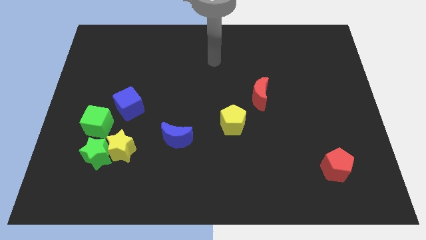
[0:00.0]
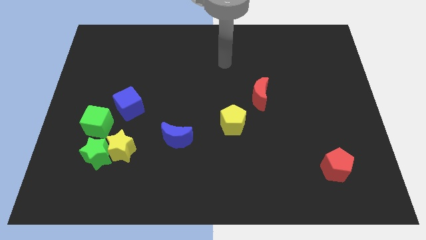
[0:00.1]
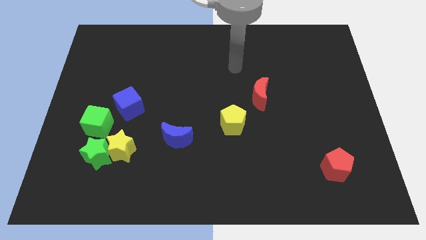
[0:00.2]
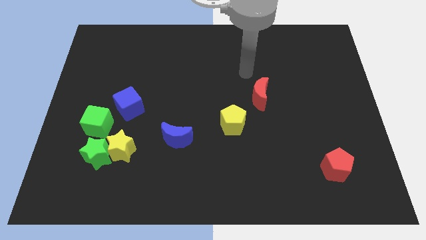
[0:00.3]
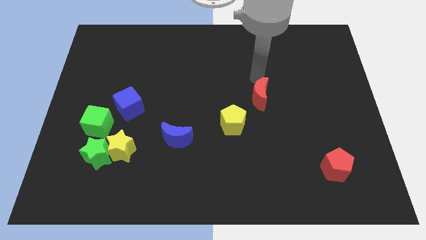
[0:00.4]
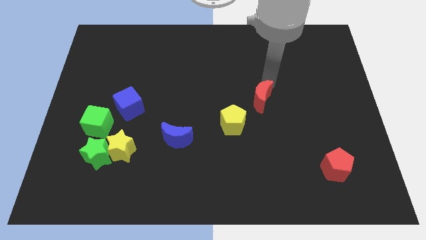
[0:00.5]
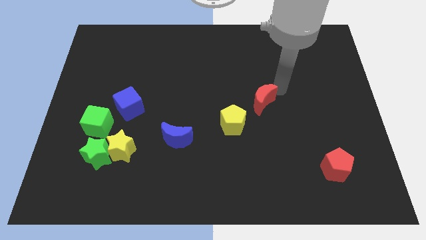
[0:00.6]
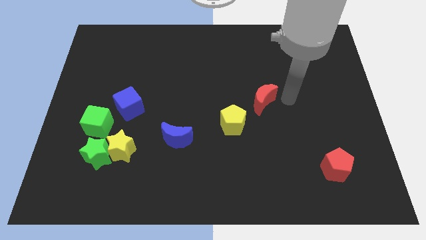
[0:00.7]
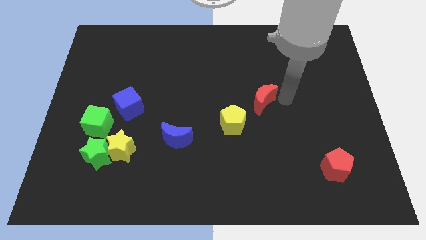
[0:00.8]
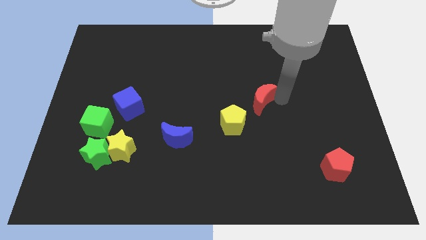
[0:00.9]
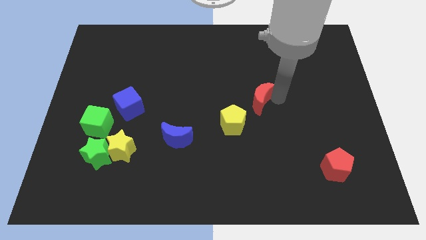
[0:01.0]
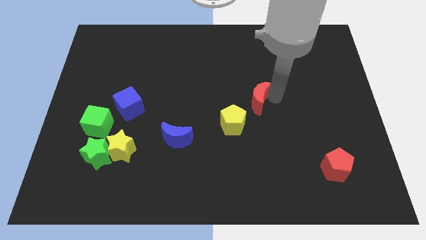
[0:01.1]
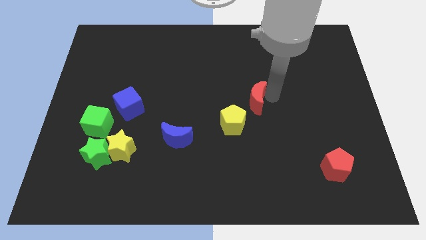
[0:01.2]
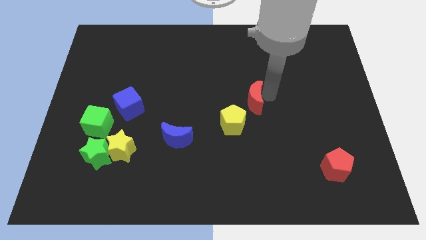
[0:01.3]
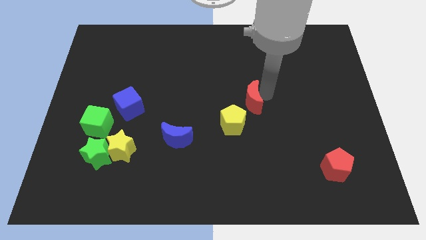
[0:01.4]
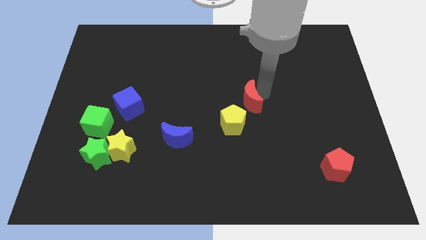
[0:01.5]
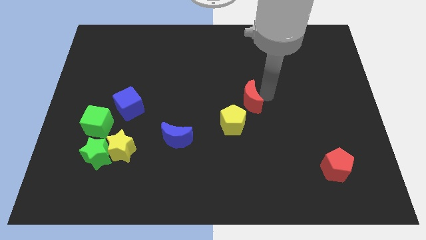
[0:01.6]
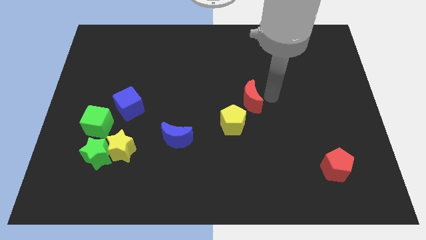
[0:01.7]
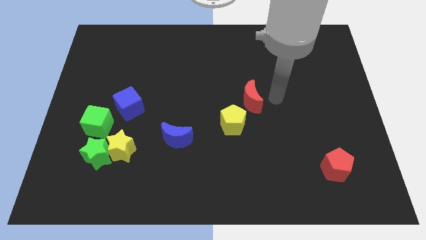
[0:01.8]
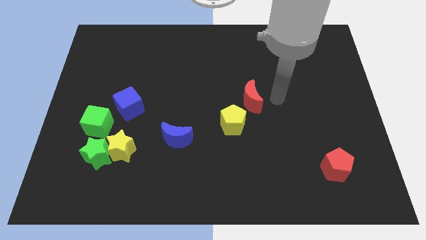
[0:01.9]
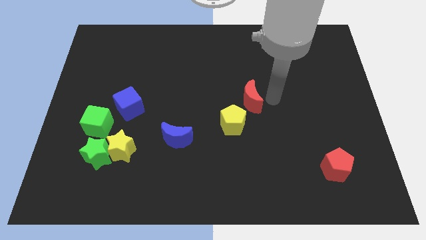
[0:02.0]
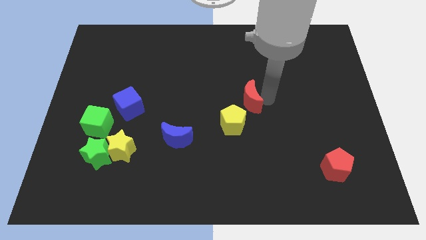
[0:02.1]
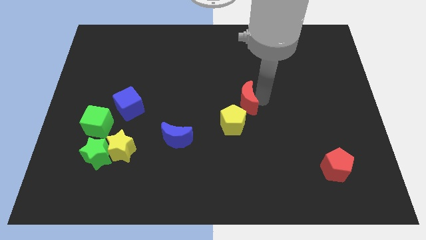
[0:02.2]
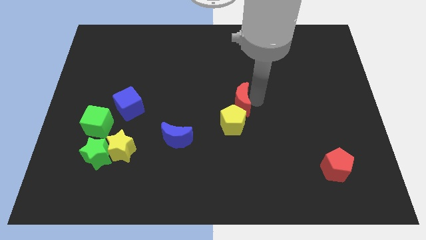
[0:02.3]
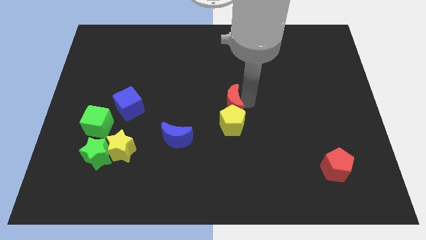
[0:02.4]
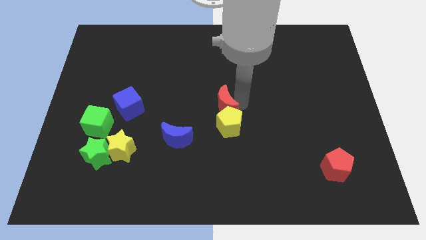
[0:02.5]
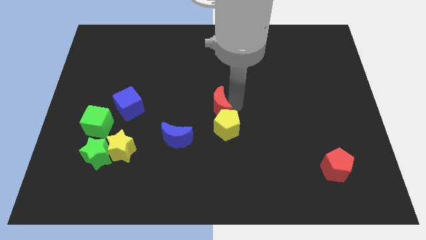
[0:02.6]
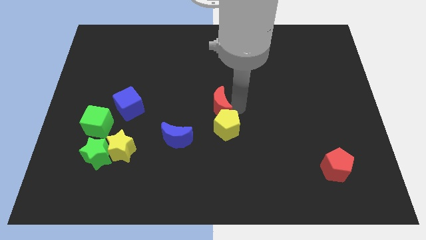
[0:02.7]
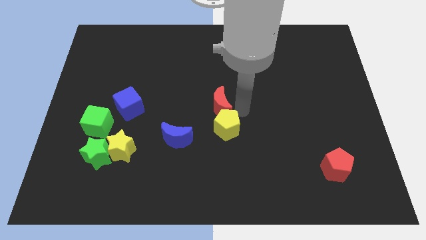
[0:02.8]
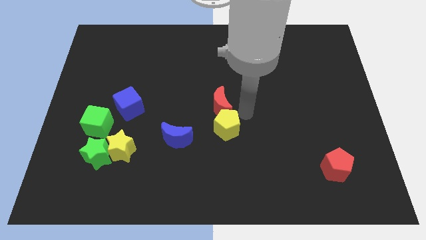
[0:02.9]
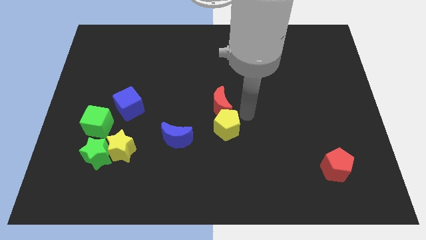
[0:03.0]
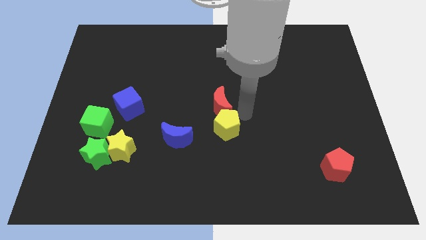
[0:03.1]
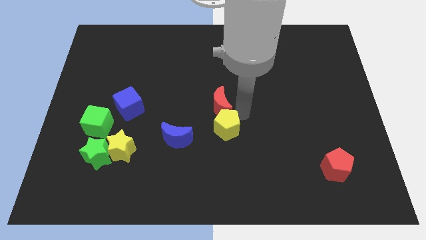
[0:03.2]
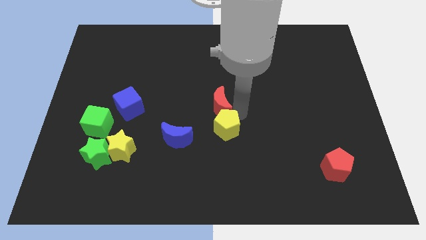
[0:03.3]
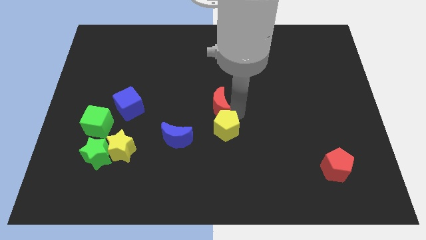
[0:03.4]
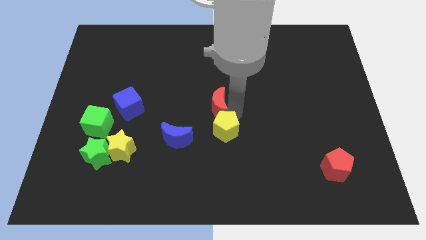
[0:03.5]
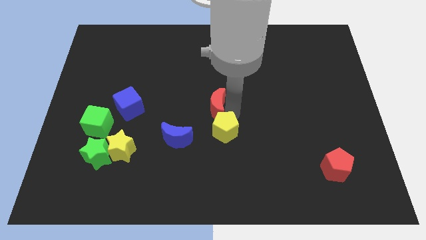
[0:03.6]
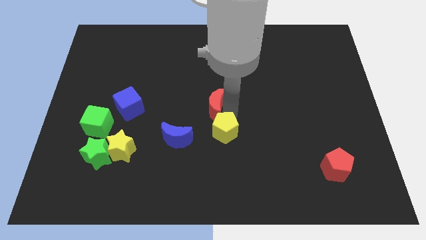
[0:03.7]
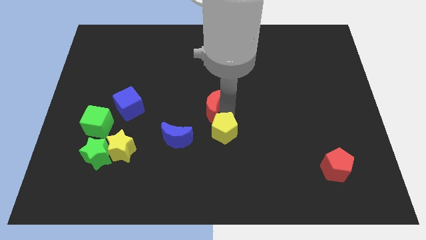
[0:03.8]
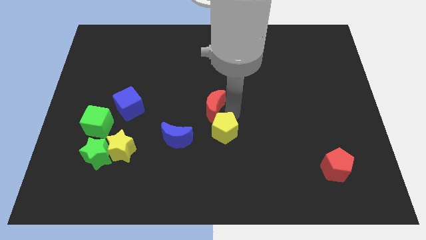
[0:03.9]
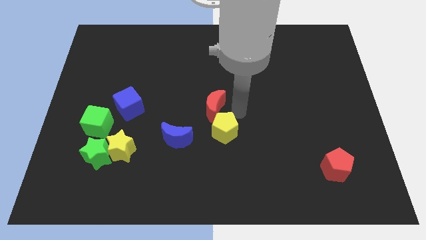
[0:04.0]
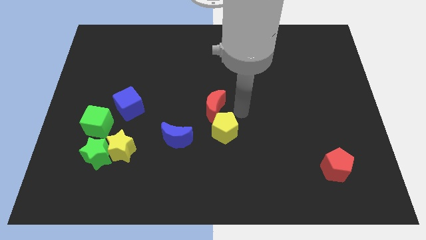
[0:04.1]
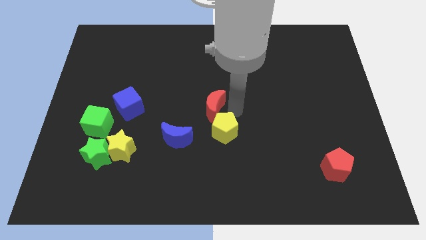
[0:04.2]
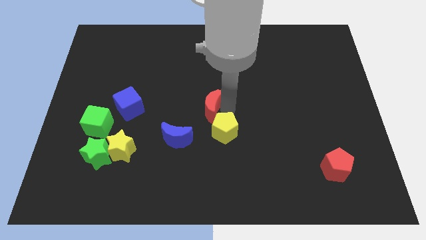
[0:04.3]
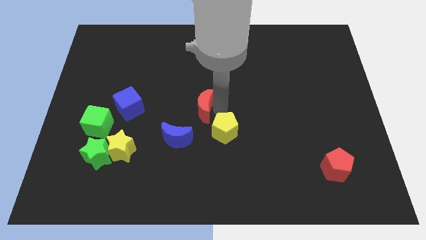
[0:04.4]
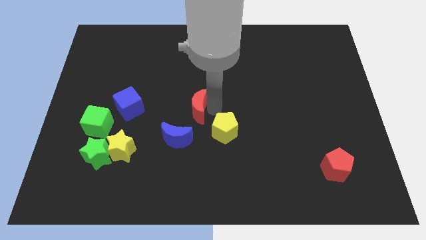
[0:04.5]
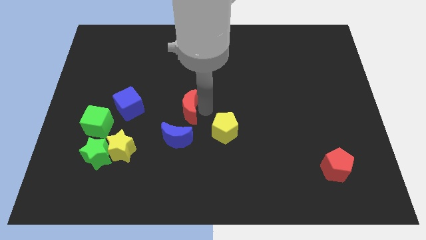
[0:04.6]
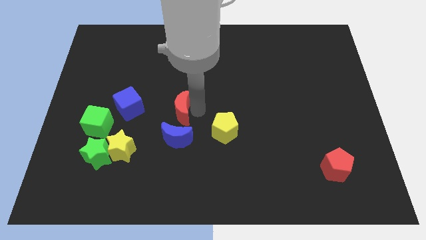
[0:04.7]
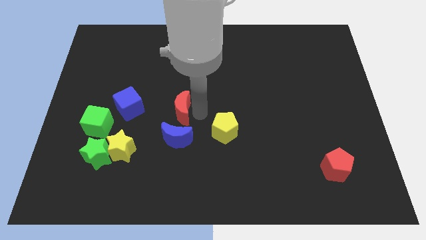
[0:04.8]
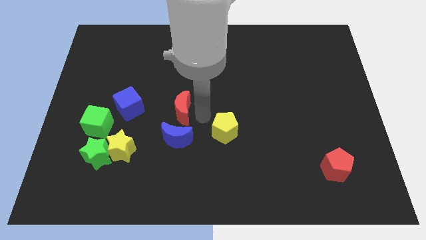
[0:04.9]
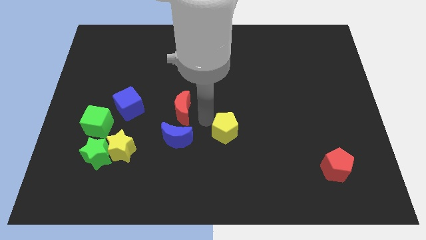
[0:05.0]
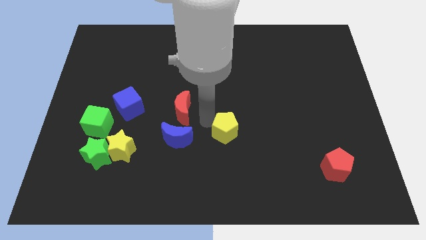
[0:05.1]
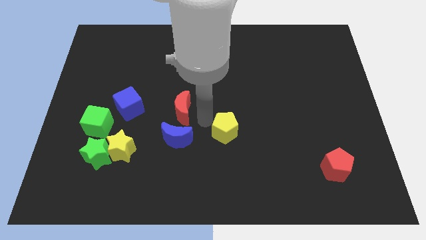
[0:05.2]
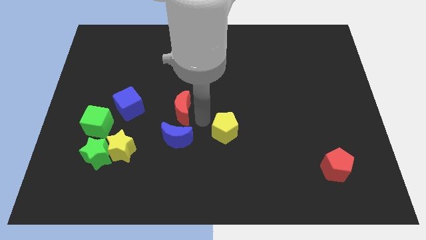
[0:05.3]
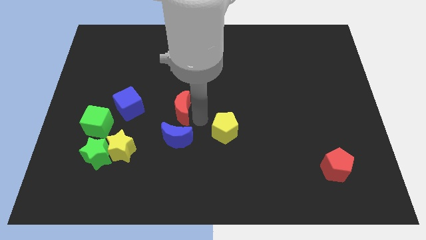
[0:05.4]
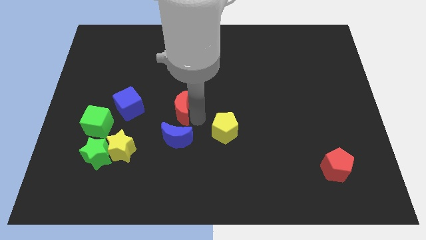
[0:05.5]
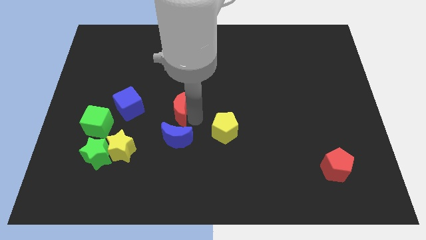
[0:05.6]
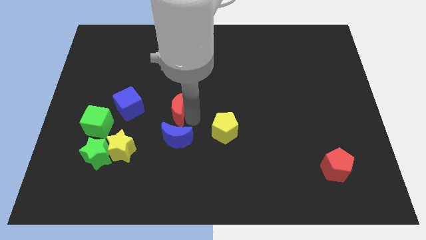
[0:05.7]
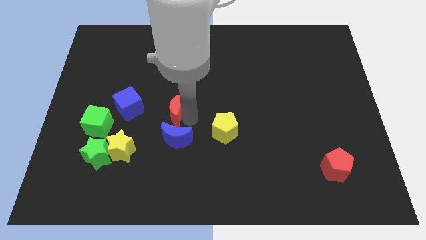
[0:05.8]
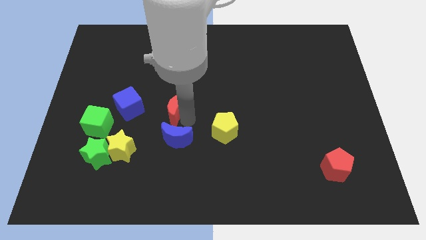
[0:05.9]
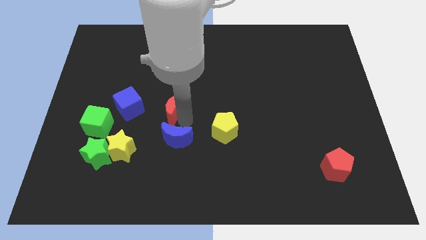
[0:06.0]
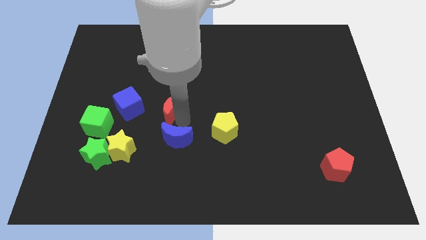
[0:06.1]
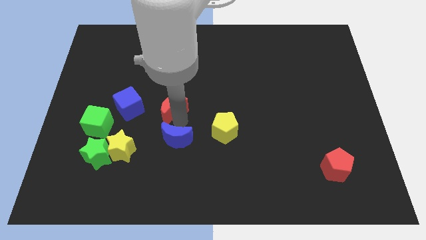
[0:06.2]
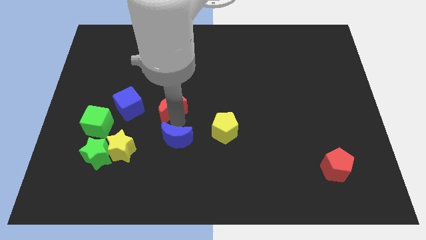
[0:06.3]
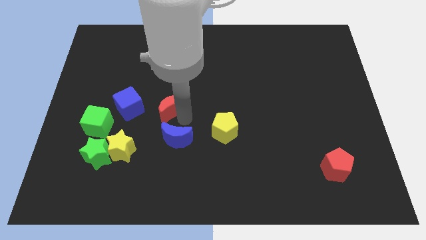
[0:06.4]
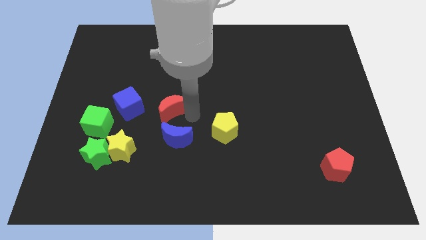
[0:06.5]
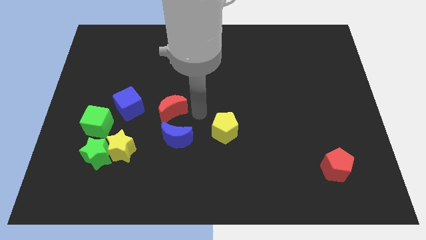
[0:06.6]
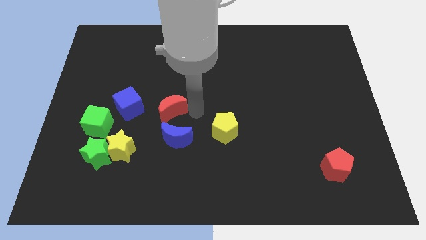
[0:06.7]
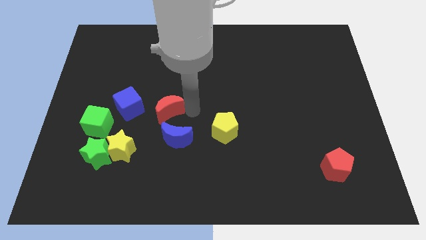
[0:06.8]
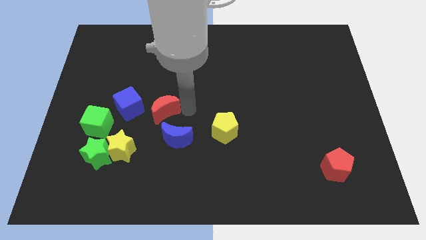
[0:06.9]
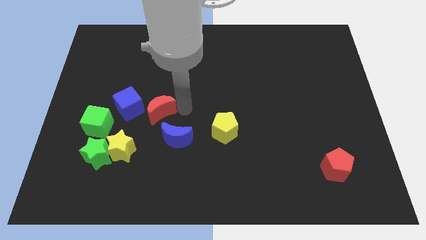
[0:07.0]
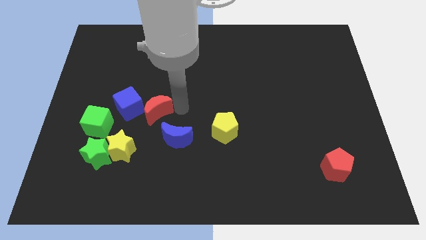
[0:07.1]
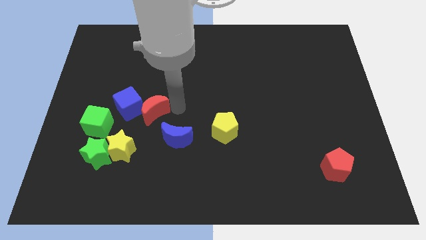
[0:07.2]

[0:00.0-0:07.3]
slide the red moon towards the blue cube
